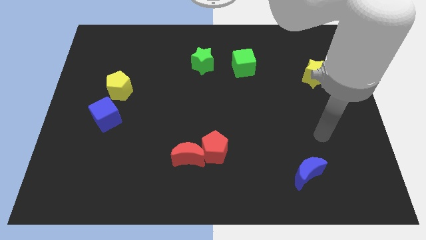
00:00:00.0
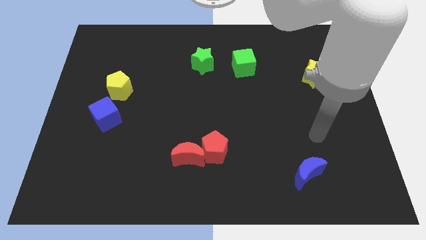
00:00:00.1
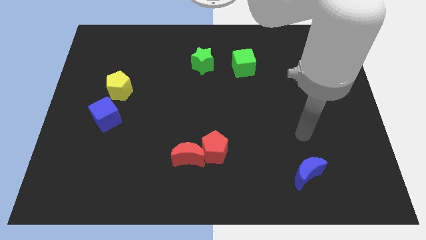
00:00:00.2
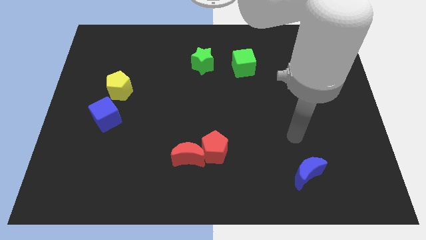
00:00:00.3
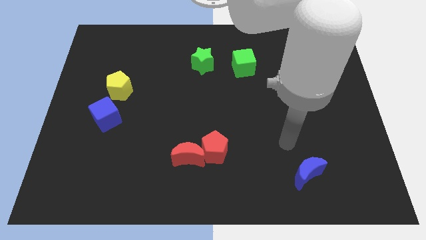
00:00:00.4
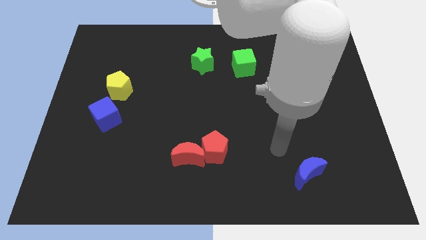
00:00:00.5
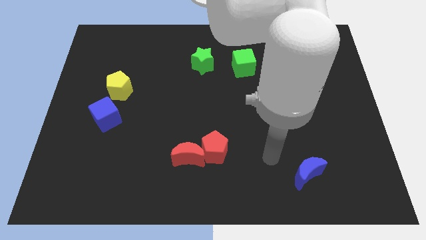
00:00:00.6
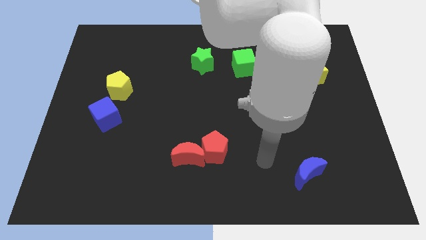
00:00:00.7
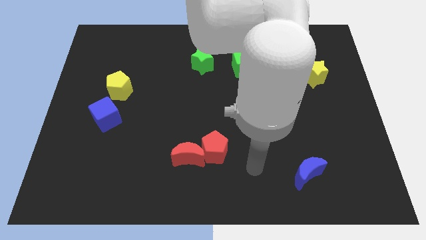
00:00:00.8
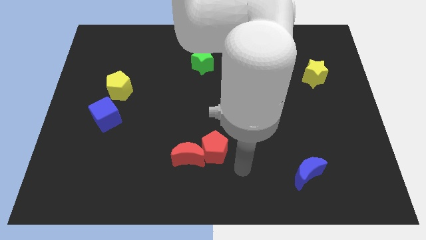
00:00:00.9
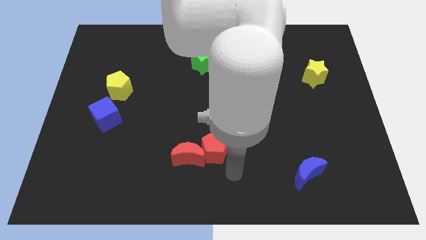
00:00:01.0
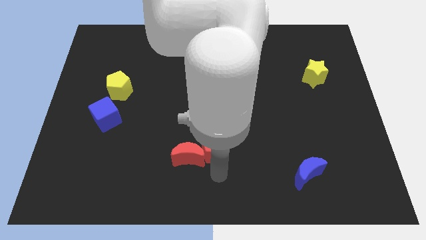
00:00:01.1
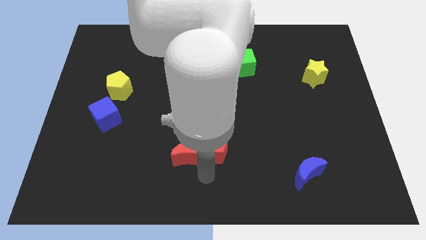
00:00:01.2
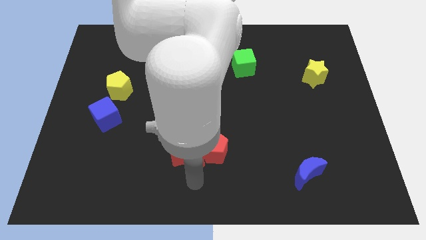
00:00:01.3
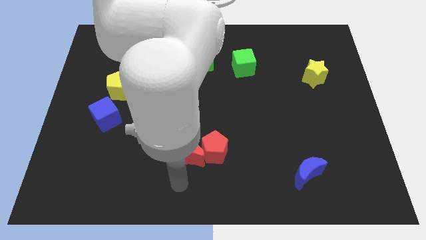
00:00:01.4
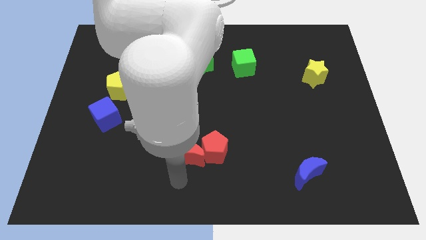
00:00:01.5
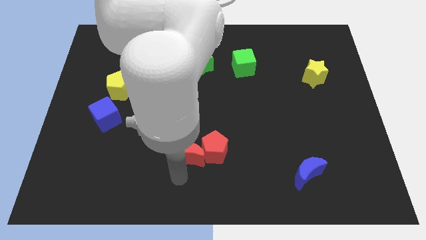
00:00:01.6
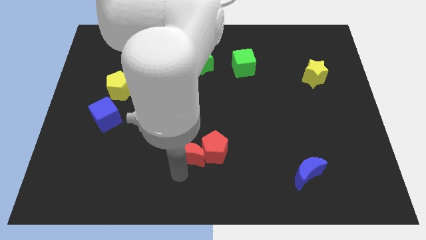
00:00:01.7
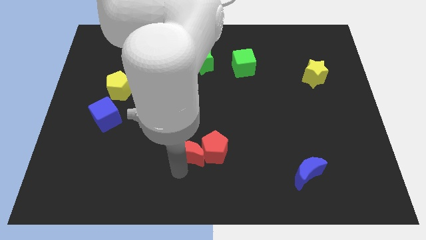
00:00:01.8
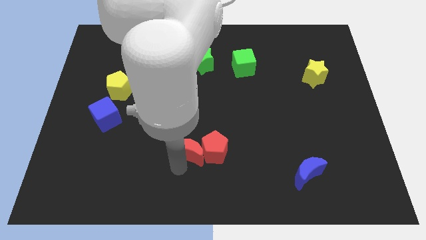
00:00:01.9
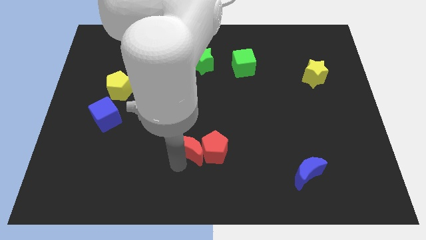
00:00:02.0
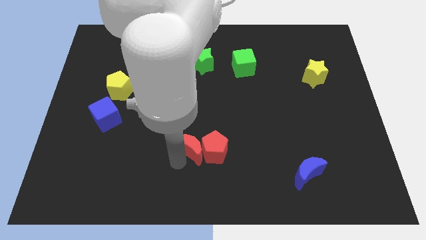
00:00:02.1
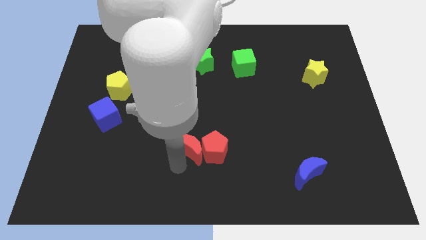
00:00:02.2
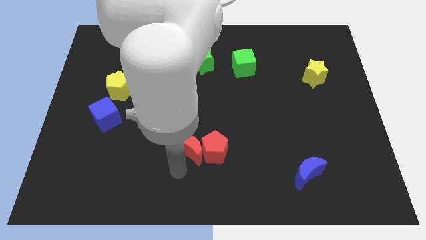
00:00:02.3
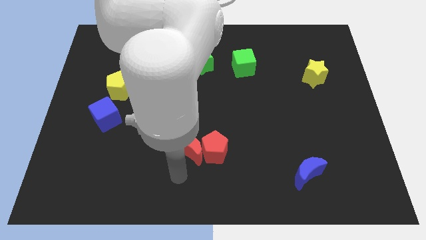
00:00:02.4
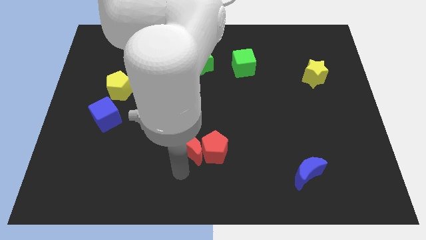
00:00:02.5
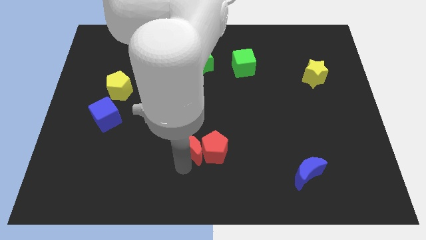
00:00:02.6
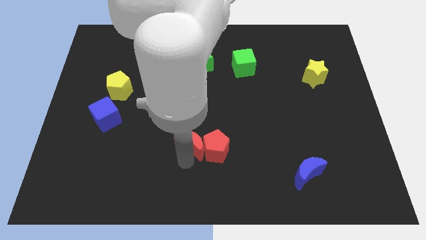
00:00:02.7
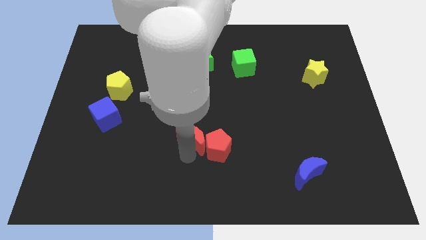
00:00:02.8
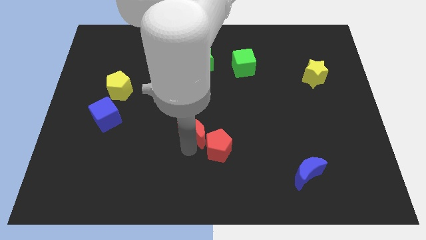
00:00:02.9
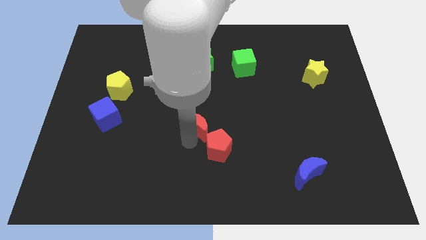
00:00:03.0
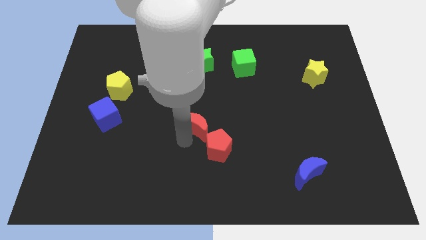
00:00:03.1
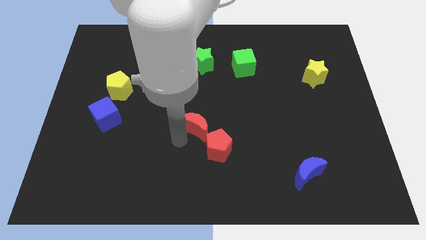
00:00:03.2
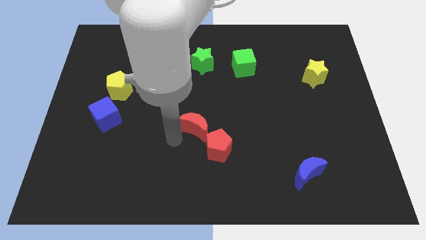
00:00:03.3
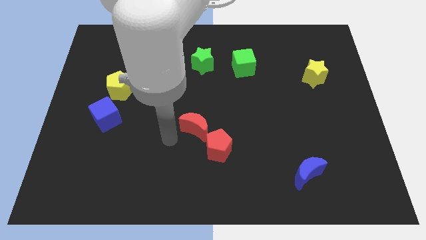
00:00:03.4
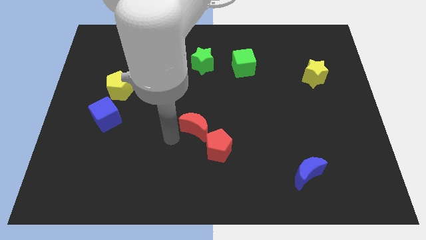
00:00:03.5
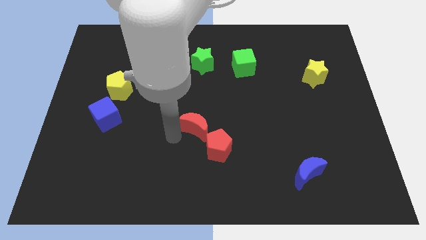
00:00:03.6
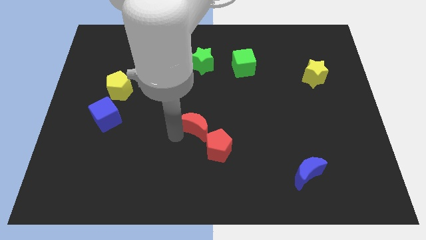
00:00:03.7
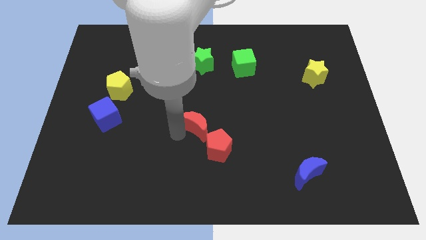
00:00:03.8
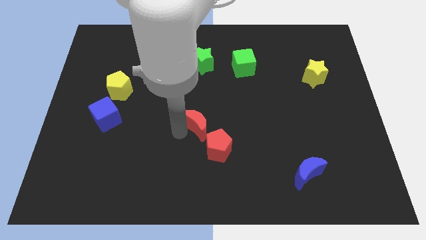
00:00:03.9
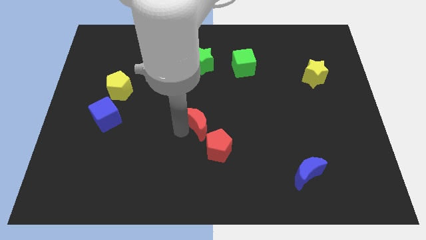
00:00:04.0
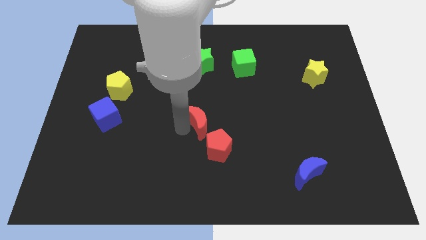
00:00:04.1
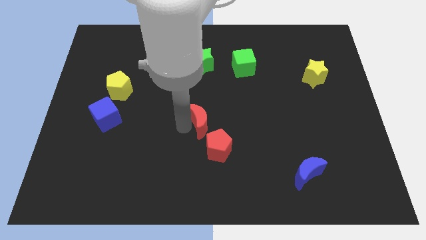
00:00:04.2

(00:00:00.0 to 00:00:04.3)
slightly move the red moon upwards and then to the right

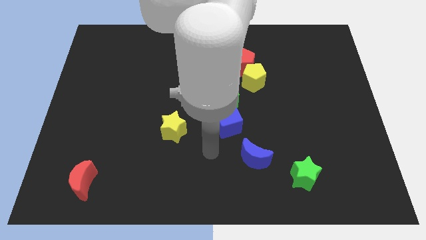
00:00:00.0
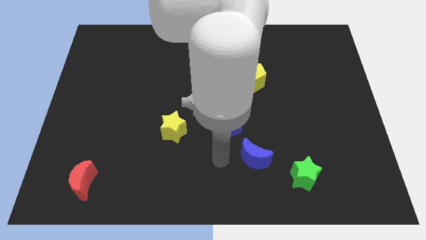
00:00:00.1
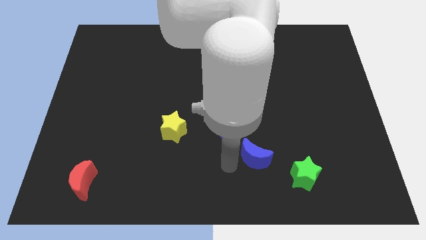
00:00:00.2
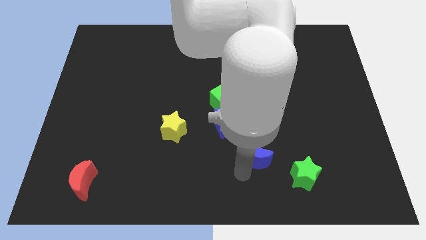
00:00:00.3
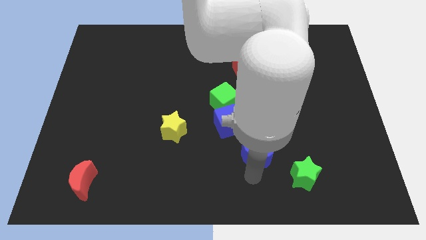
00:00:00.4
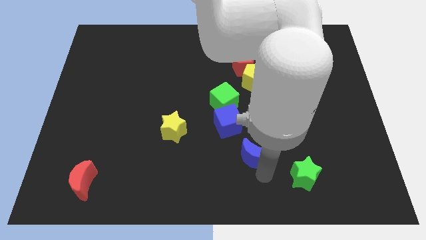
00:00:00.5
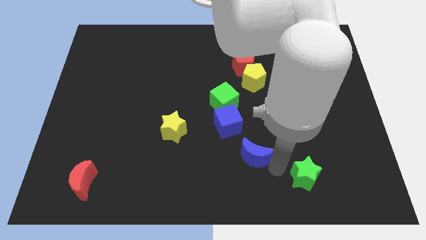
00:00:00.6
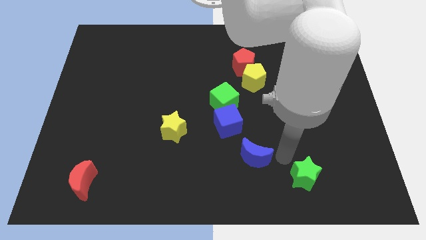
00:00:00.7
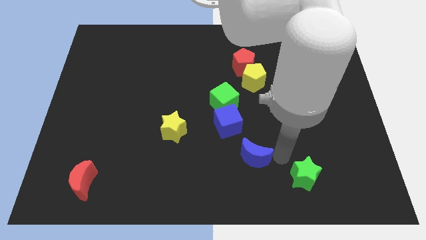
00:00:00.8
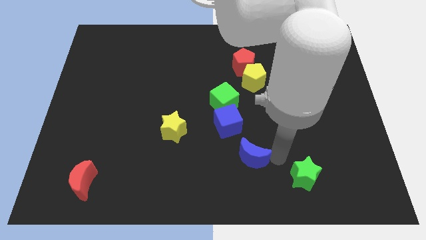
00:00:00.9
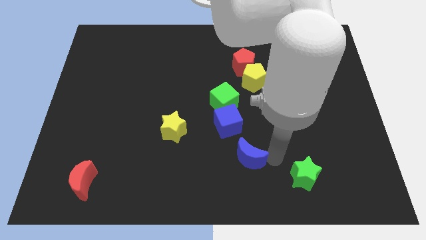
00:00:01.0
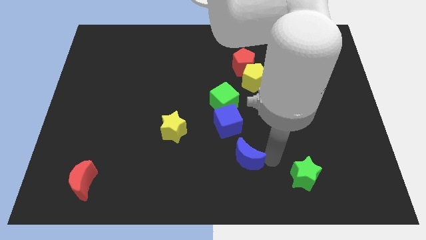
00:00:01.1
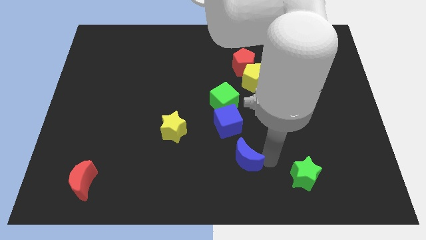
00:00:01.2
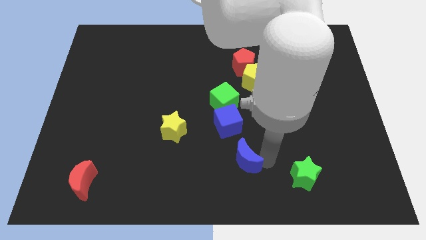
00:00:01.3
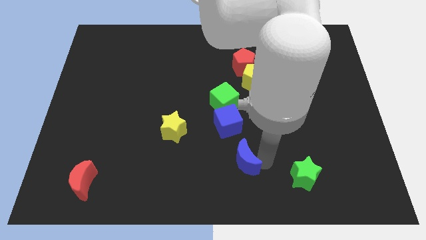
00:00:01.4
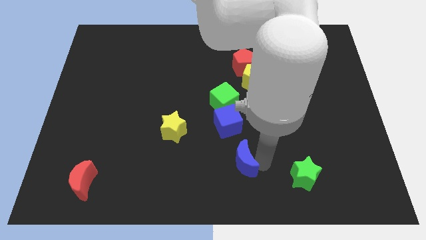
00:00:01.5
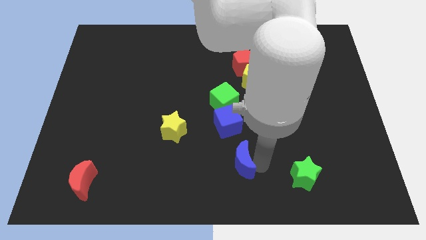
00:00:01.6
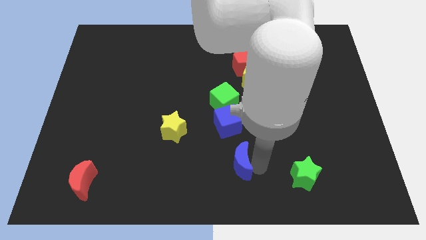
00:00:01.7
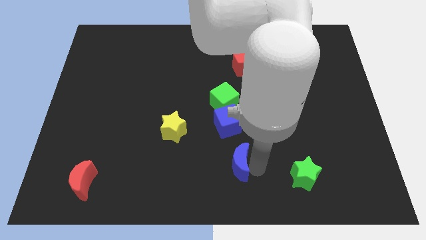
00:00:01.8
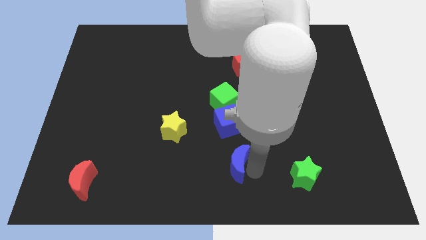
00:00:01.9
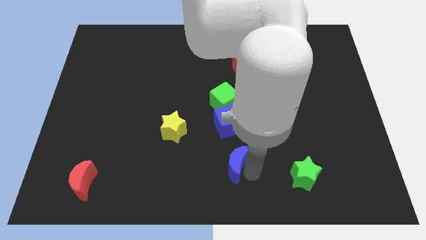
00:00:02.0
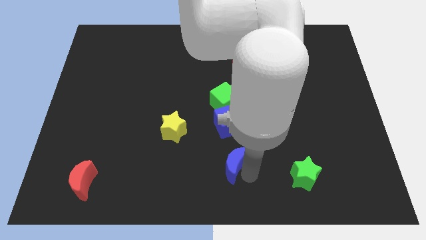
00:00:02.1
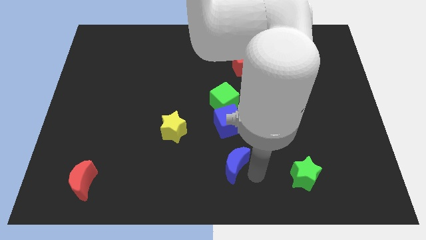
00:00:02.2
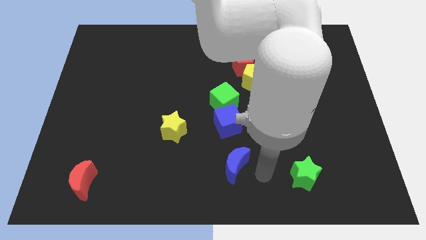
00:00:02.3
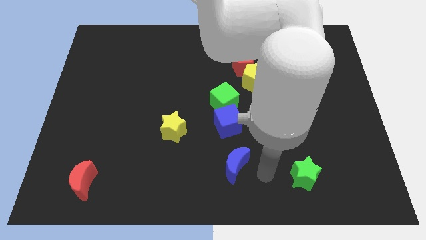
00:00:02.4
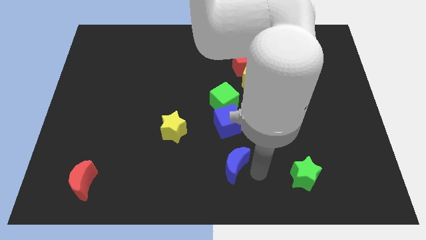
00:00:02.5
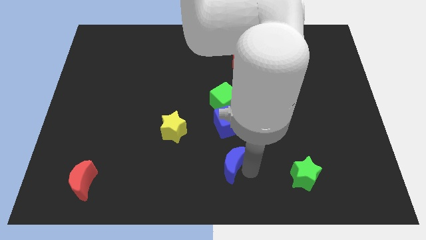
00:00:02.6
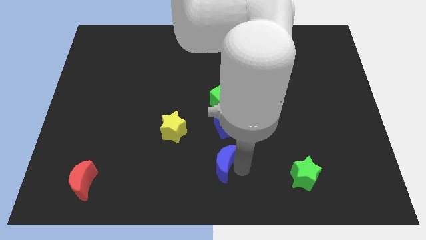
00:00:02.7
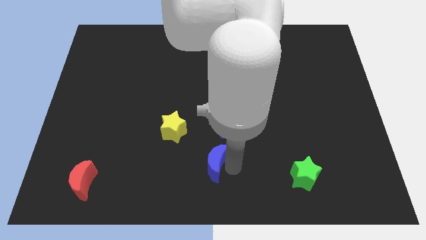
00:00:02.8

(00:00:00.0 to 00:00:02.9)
move the blue moon to the left a little

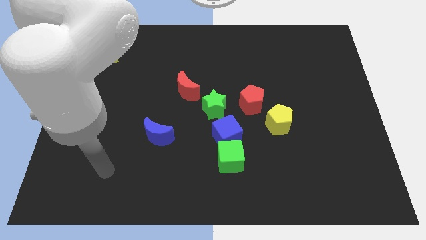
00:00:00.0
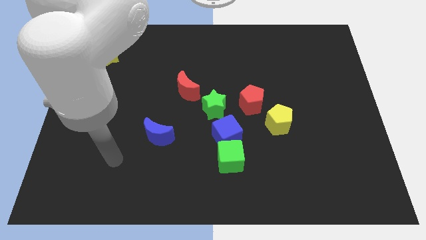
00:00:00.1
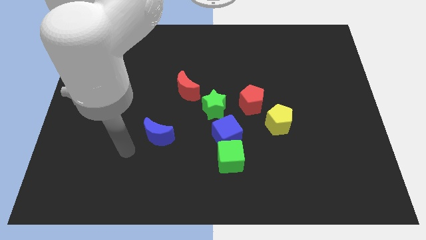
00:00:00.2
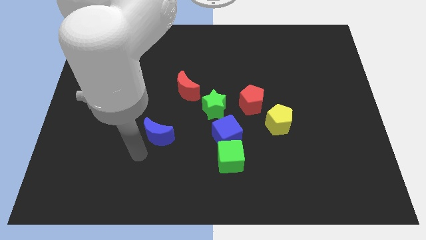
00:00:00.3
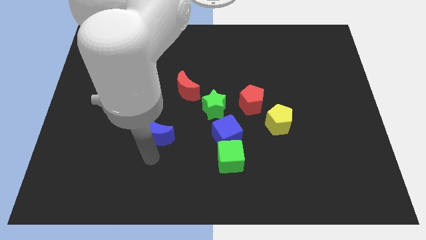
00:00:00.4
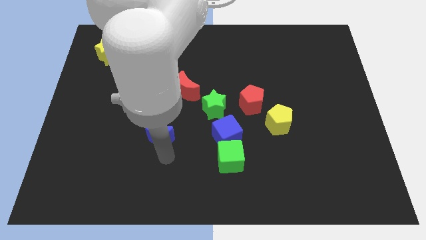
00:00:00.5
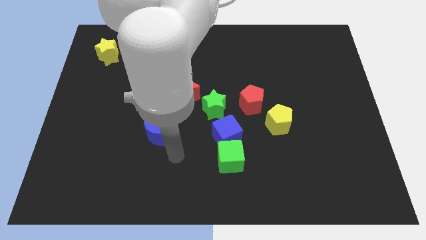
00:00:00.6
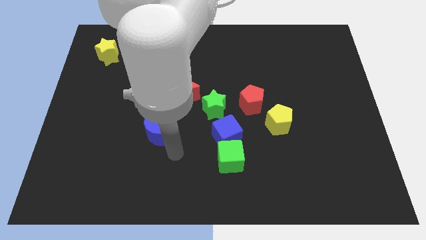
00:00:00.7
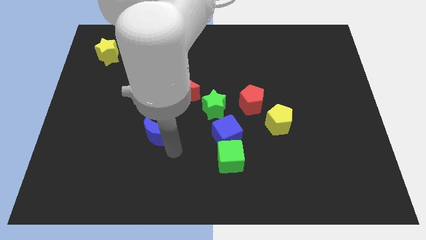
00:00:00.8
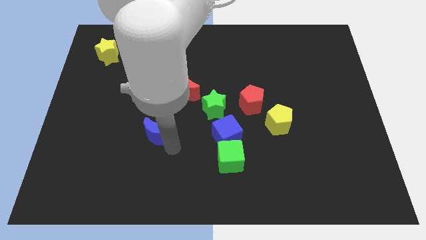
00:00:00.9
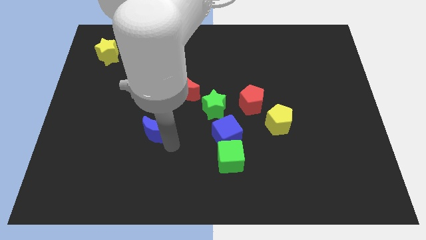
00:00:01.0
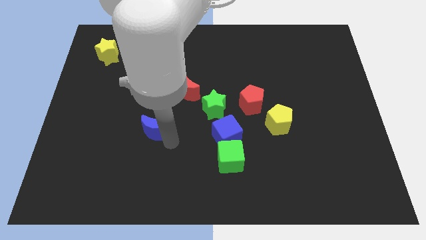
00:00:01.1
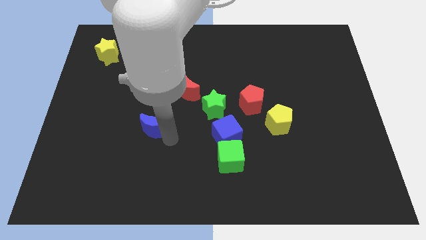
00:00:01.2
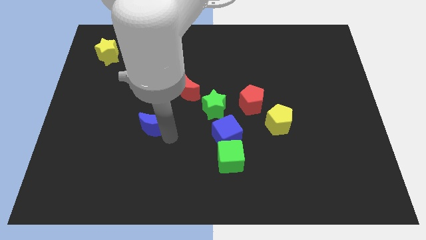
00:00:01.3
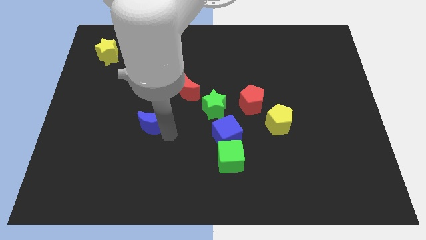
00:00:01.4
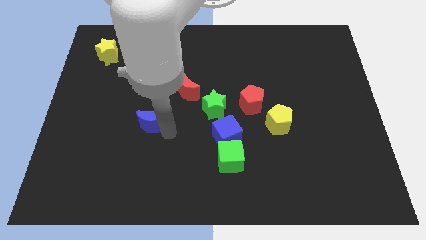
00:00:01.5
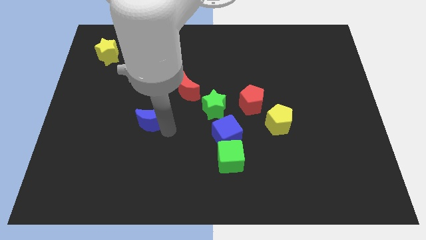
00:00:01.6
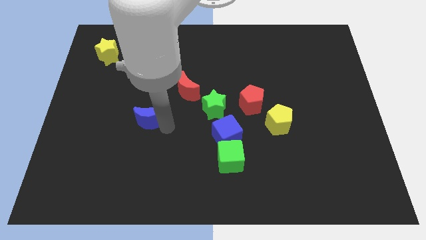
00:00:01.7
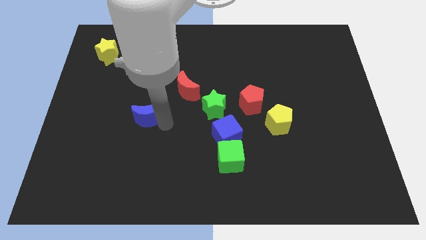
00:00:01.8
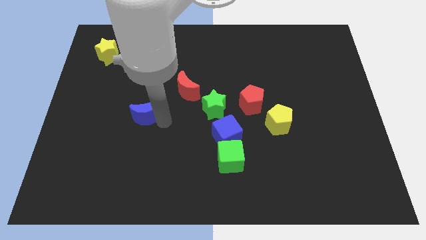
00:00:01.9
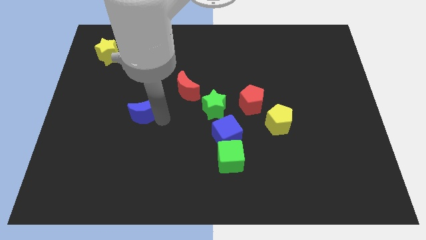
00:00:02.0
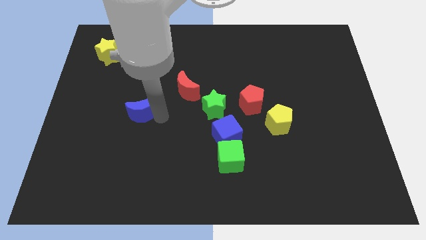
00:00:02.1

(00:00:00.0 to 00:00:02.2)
slide the blue moon up and then to the left somewhat
